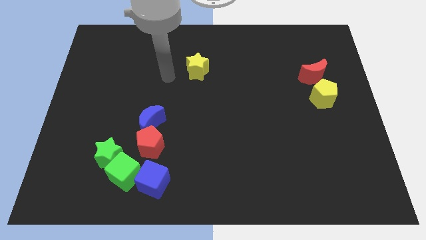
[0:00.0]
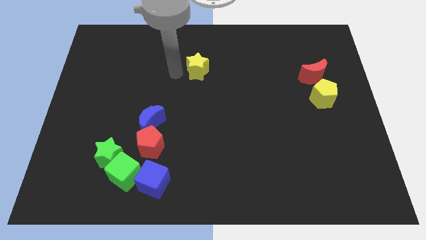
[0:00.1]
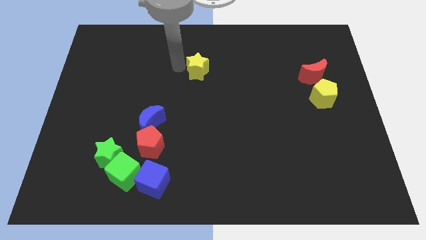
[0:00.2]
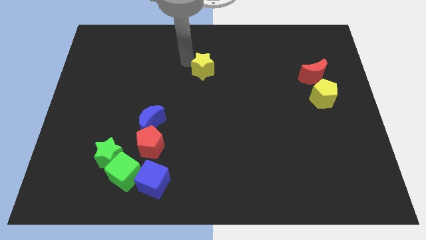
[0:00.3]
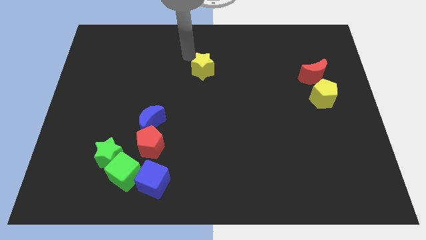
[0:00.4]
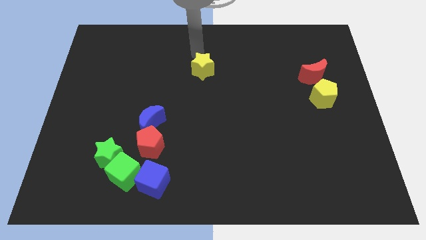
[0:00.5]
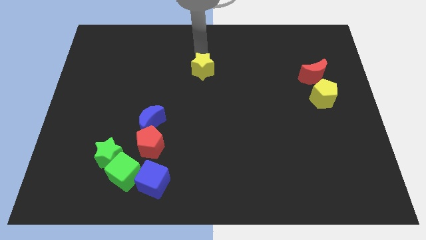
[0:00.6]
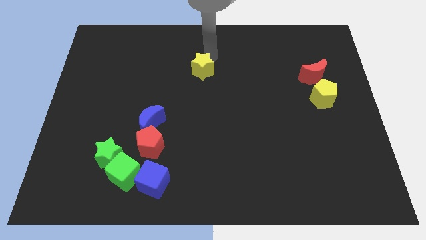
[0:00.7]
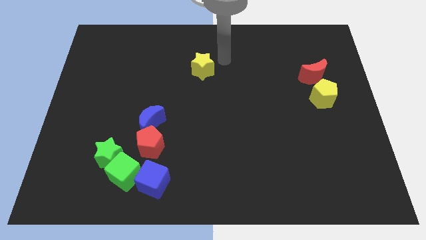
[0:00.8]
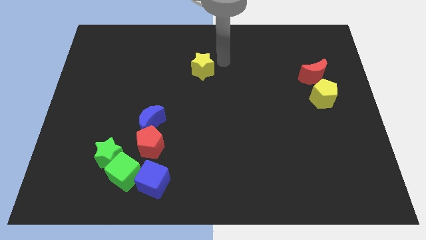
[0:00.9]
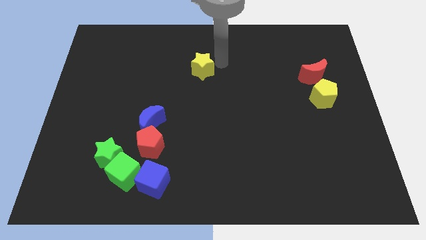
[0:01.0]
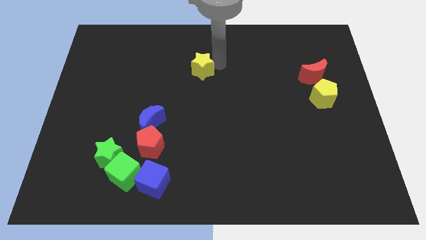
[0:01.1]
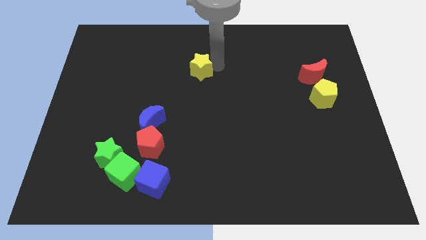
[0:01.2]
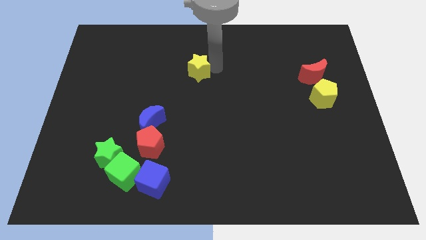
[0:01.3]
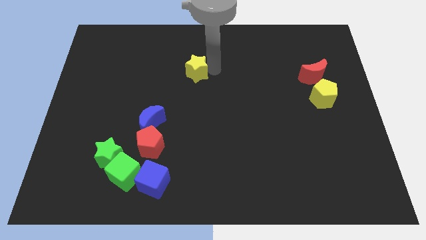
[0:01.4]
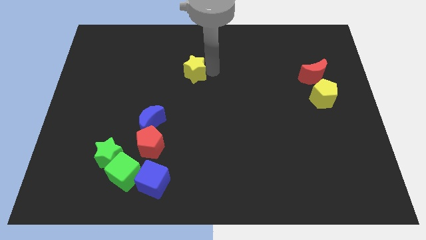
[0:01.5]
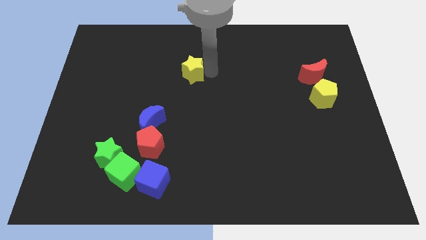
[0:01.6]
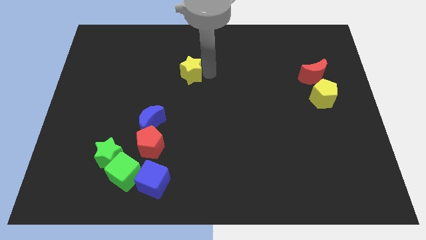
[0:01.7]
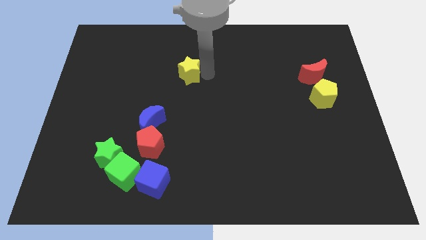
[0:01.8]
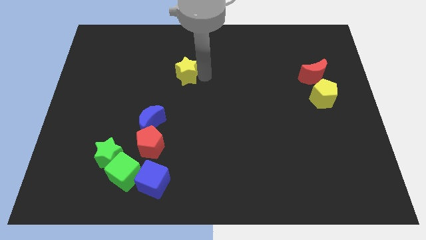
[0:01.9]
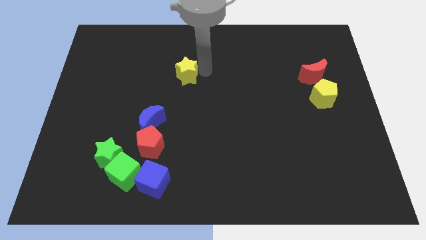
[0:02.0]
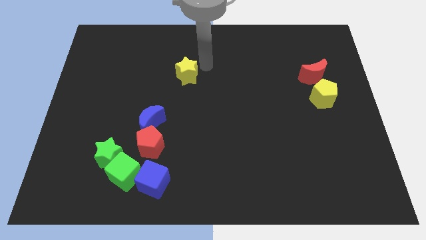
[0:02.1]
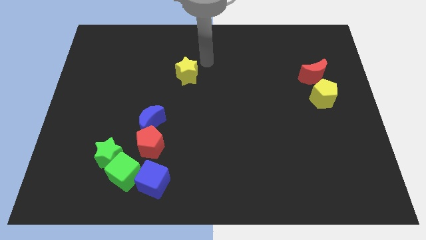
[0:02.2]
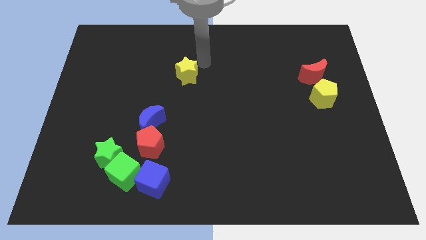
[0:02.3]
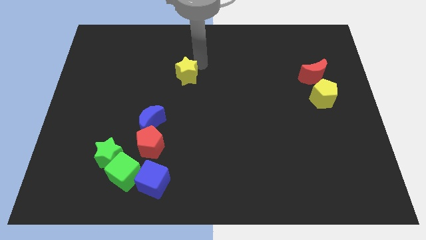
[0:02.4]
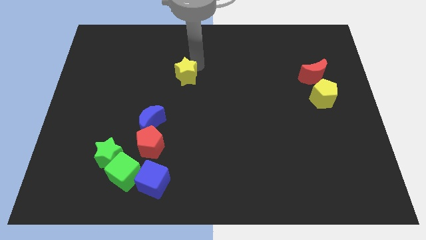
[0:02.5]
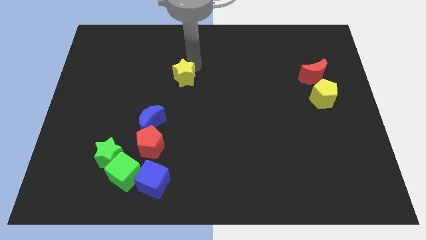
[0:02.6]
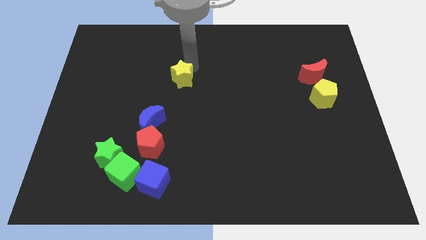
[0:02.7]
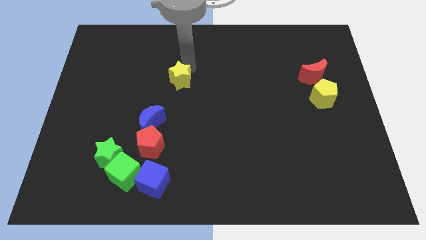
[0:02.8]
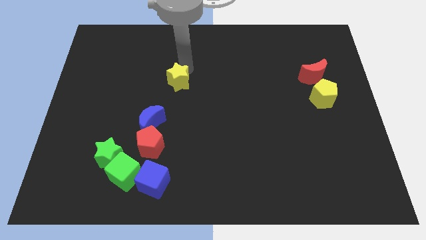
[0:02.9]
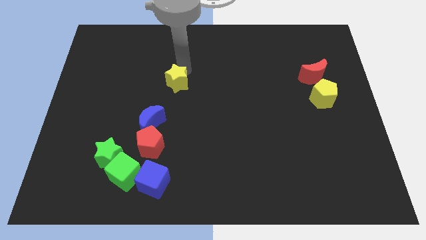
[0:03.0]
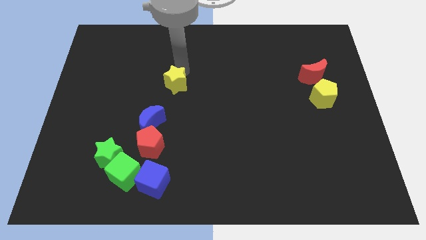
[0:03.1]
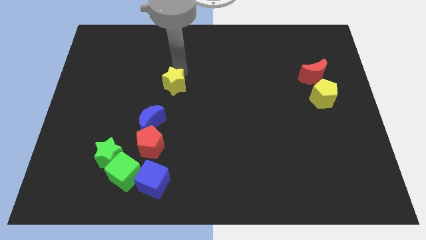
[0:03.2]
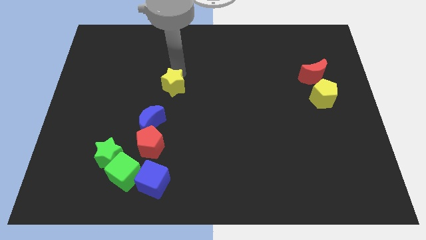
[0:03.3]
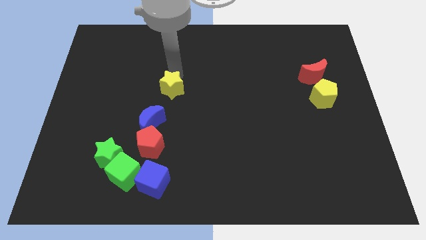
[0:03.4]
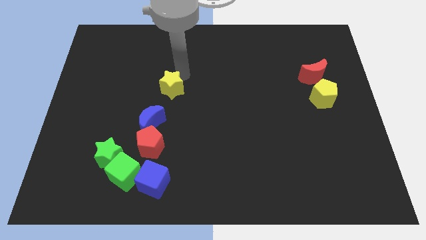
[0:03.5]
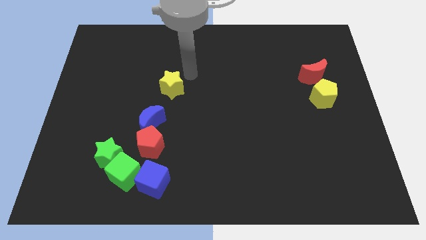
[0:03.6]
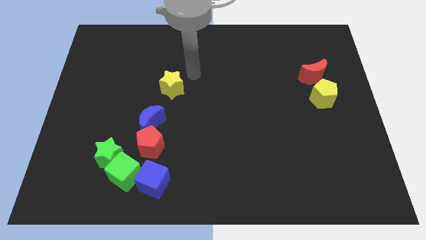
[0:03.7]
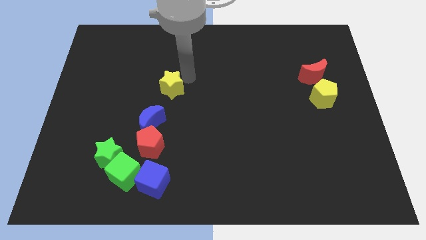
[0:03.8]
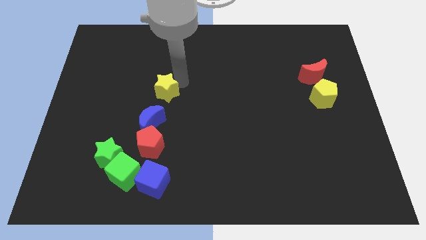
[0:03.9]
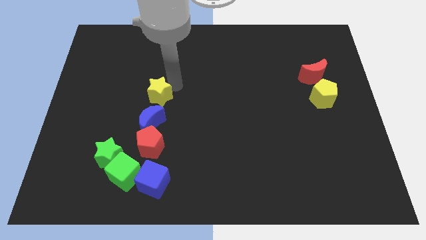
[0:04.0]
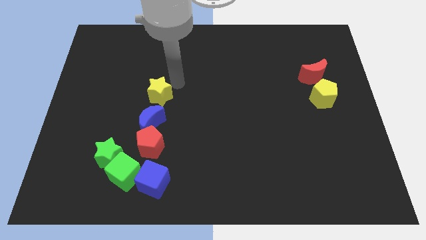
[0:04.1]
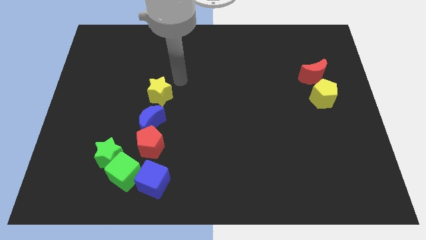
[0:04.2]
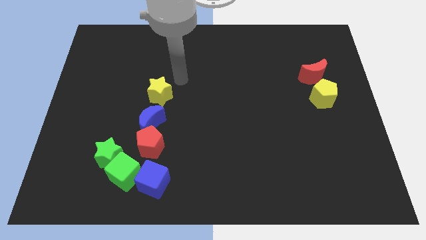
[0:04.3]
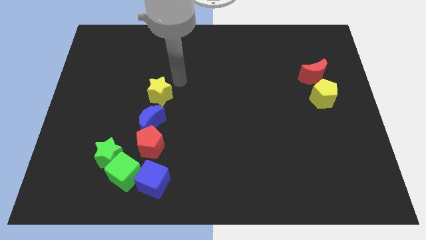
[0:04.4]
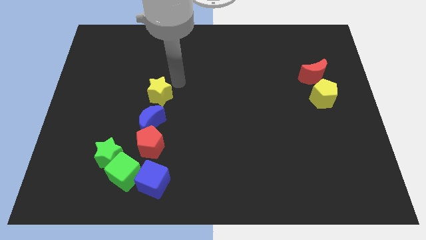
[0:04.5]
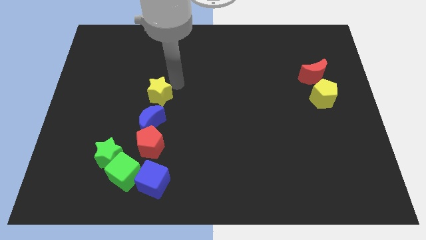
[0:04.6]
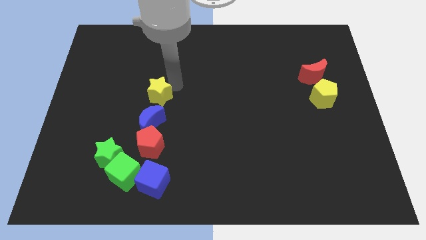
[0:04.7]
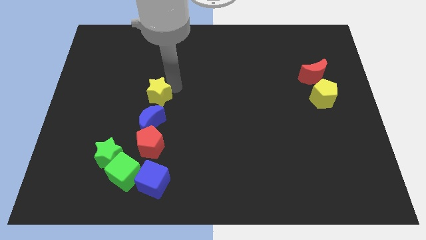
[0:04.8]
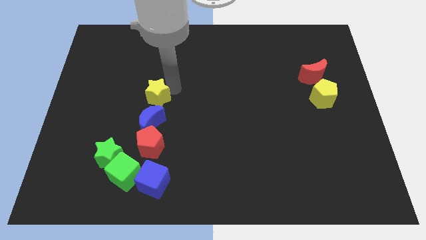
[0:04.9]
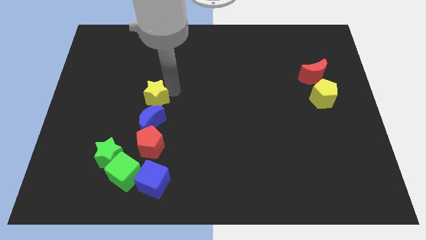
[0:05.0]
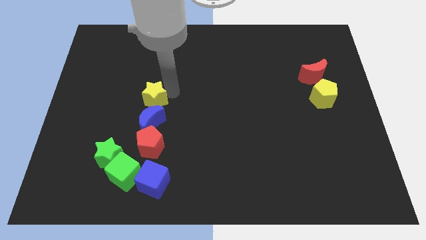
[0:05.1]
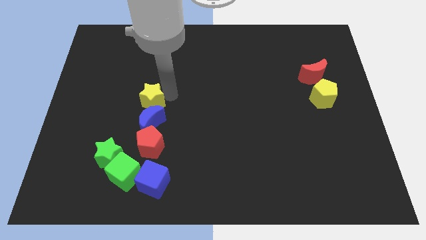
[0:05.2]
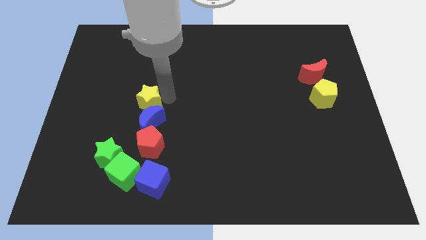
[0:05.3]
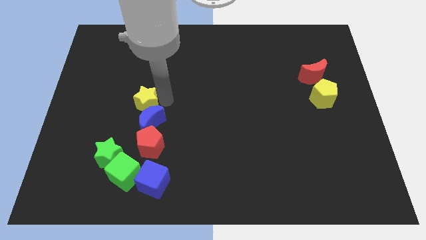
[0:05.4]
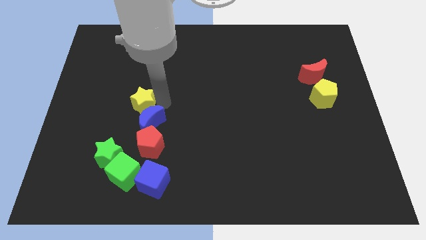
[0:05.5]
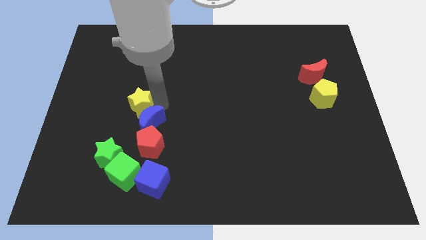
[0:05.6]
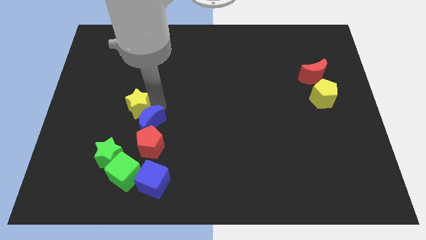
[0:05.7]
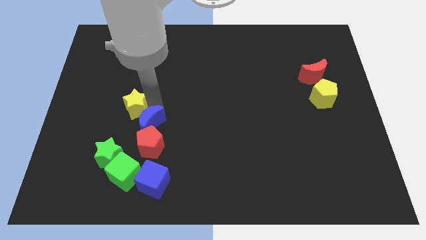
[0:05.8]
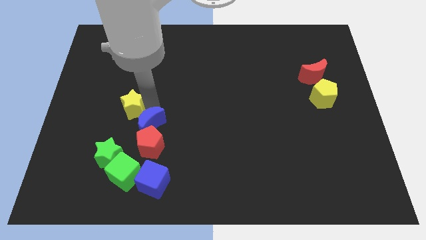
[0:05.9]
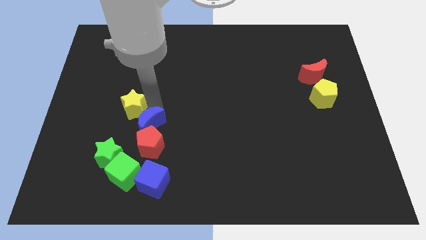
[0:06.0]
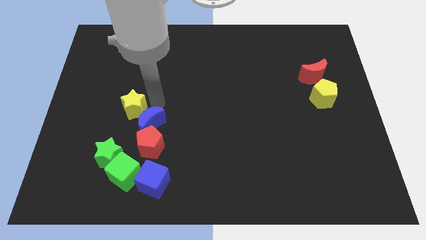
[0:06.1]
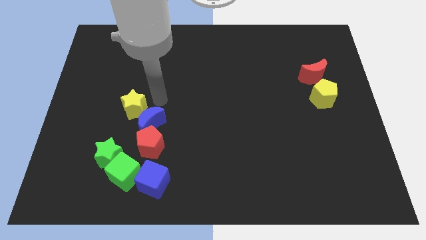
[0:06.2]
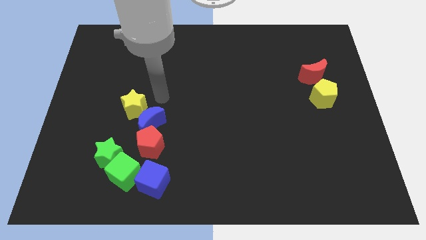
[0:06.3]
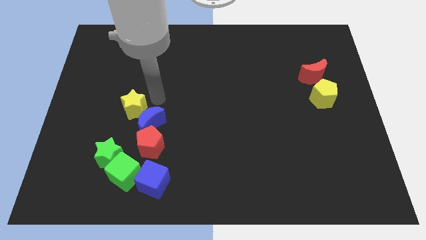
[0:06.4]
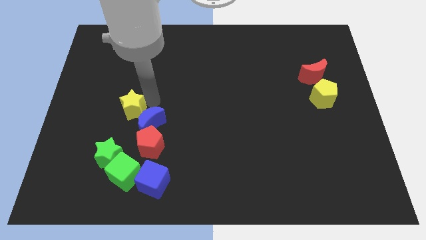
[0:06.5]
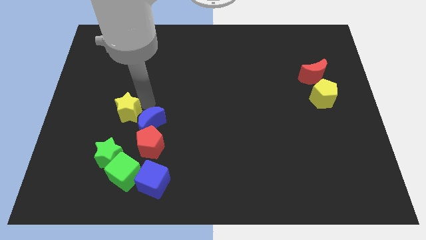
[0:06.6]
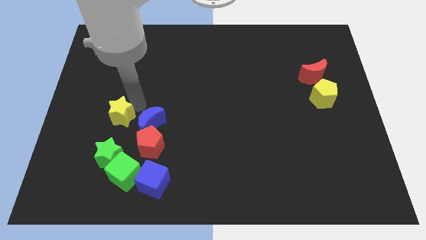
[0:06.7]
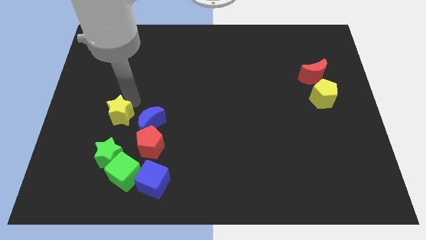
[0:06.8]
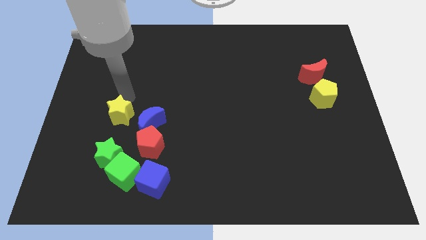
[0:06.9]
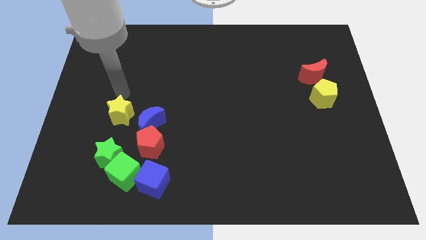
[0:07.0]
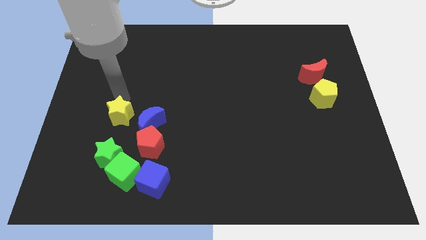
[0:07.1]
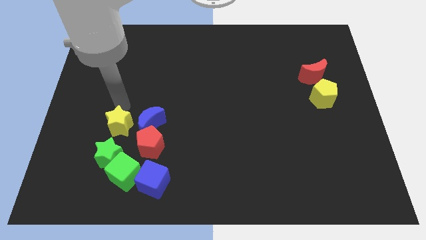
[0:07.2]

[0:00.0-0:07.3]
put the yellow star to the bottom left side of the blue moon
